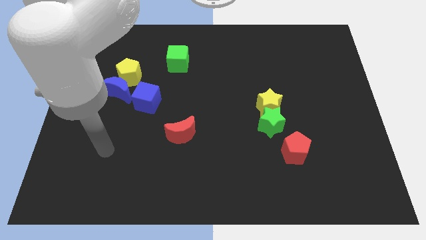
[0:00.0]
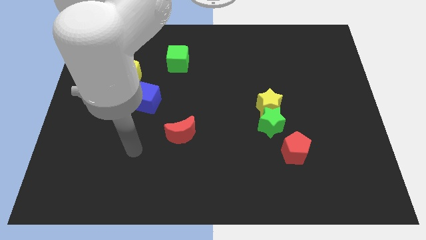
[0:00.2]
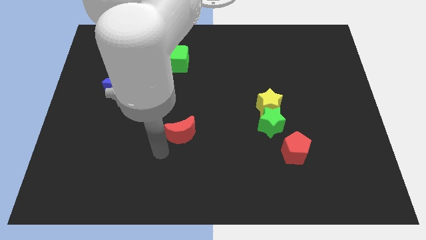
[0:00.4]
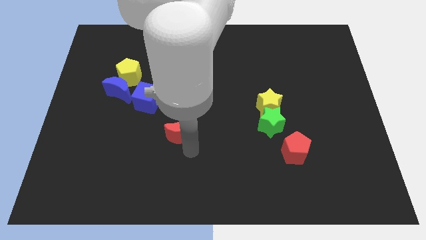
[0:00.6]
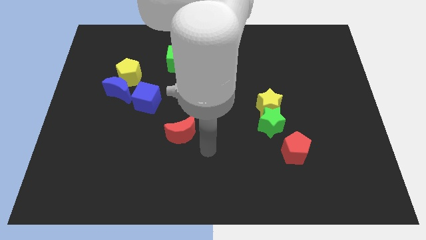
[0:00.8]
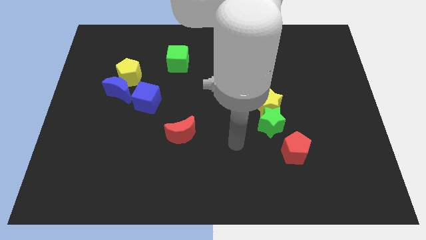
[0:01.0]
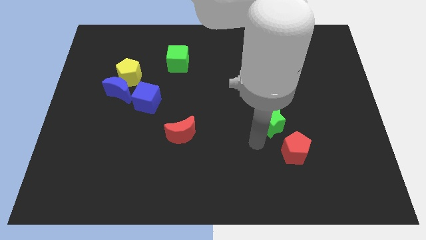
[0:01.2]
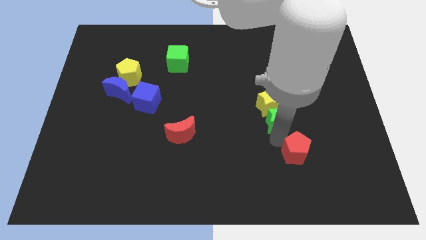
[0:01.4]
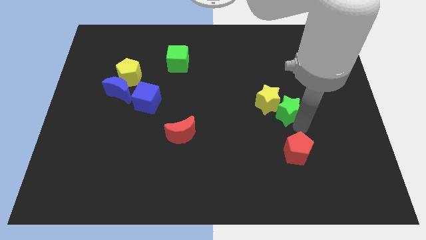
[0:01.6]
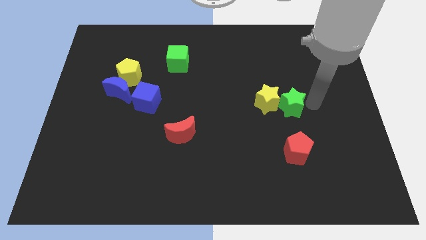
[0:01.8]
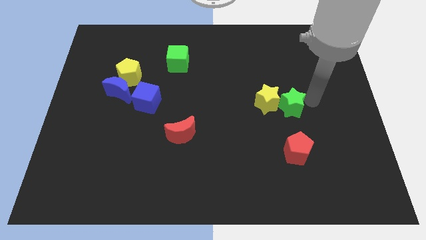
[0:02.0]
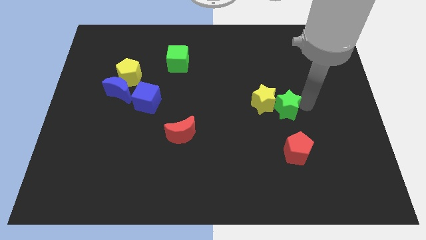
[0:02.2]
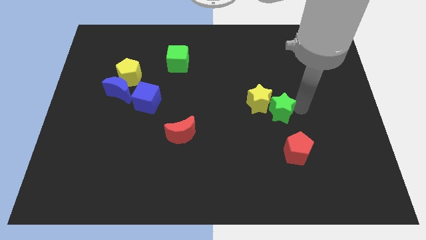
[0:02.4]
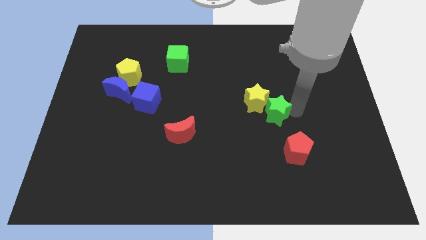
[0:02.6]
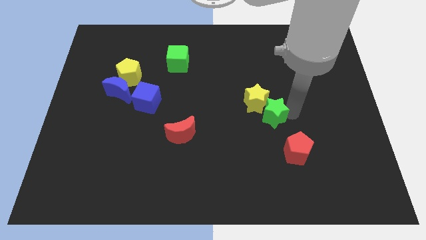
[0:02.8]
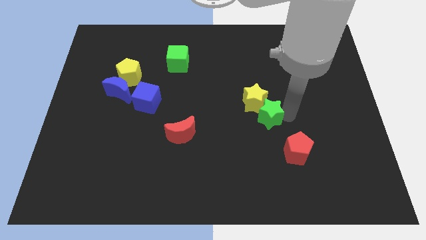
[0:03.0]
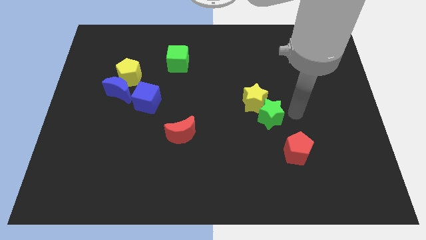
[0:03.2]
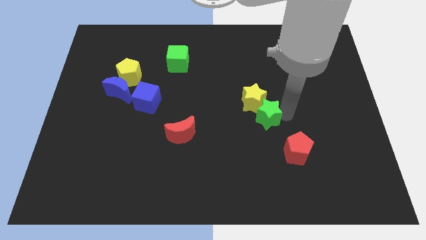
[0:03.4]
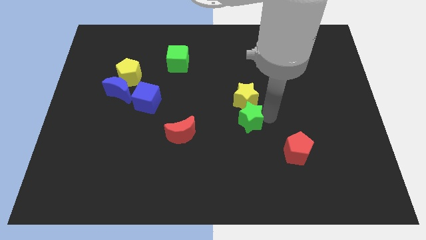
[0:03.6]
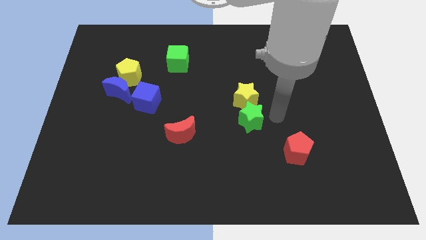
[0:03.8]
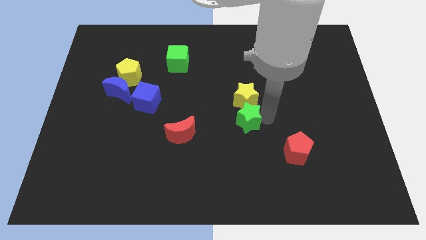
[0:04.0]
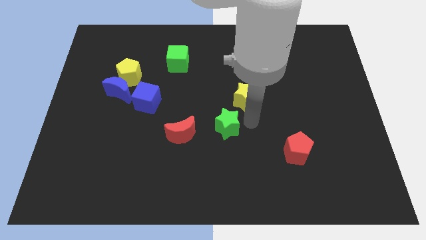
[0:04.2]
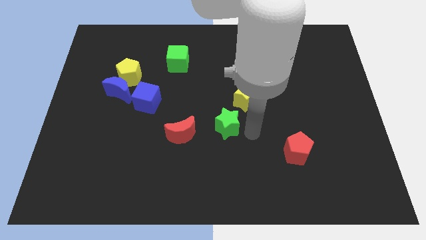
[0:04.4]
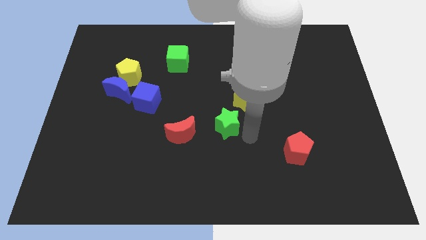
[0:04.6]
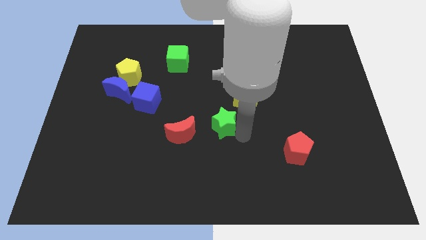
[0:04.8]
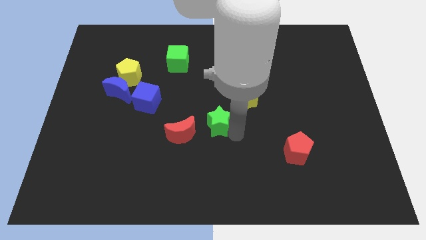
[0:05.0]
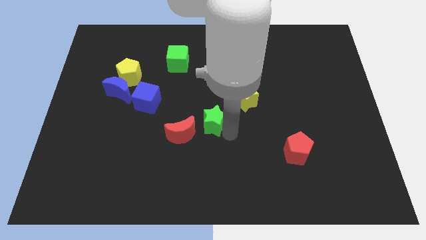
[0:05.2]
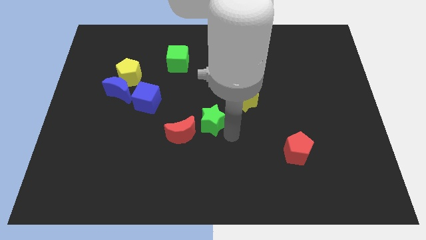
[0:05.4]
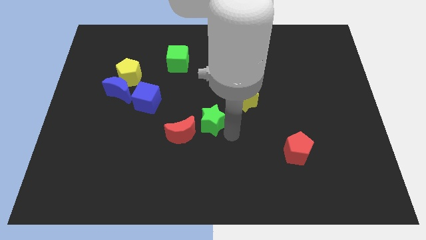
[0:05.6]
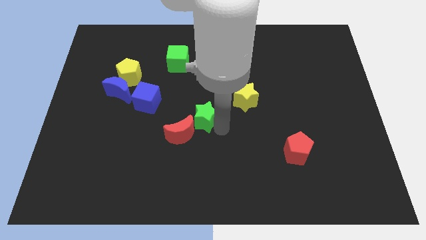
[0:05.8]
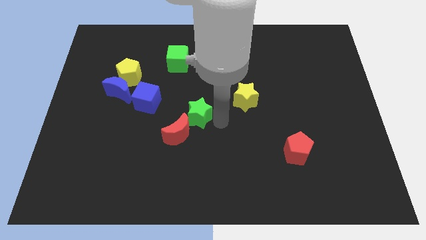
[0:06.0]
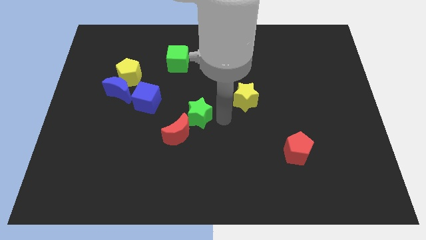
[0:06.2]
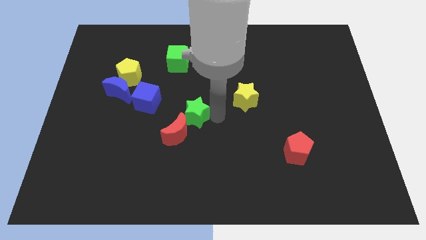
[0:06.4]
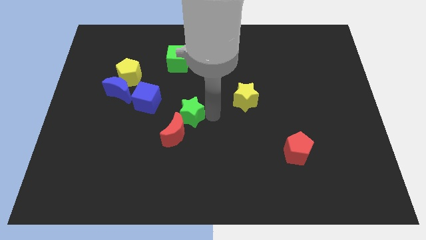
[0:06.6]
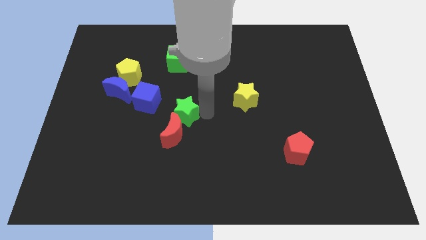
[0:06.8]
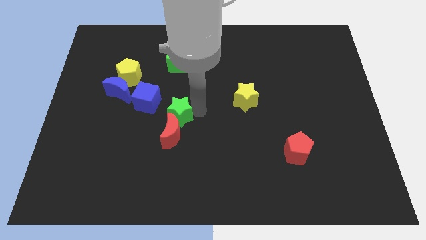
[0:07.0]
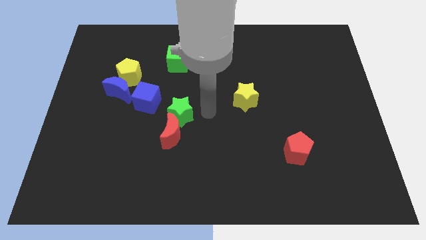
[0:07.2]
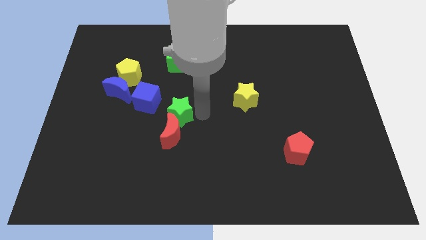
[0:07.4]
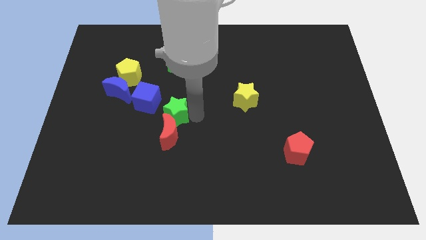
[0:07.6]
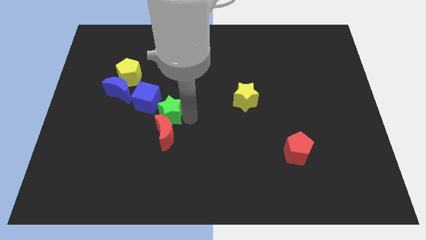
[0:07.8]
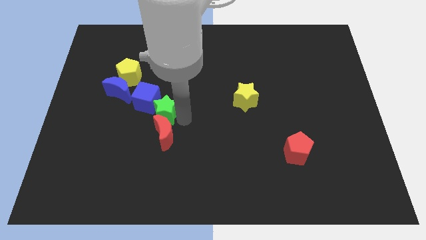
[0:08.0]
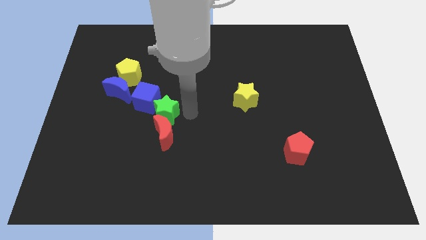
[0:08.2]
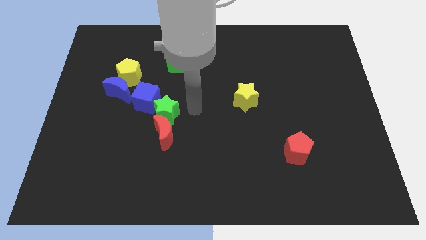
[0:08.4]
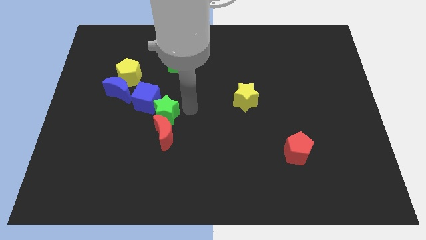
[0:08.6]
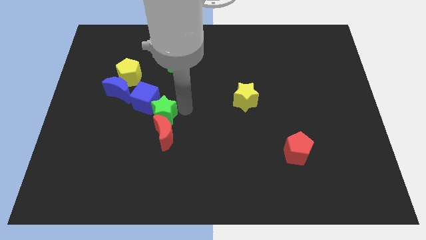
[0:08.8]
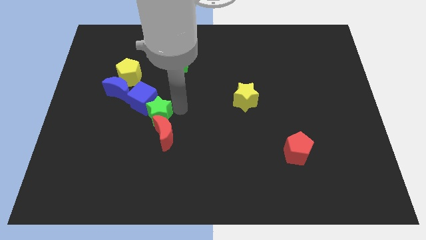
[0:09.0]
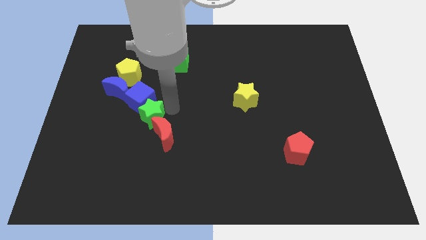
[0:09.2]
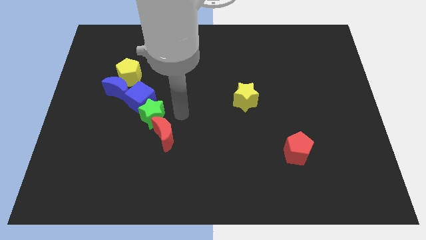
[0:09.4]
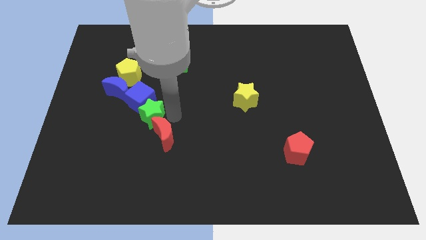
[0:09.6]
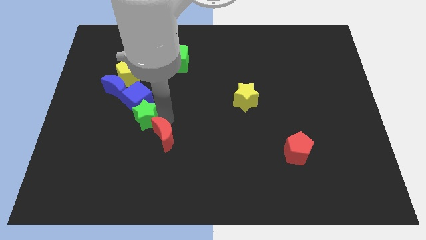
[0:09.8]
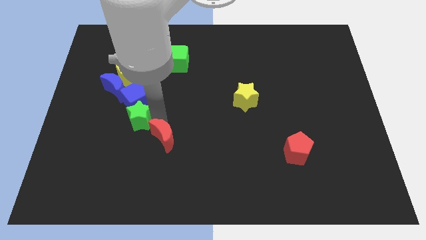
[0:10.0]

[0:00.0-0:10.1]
move the green star diagonally down and to the left of the blue cube
